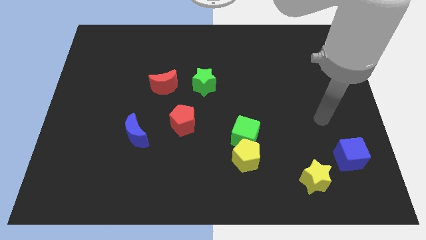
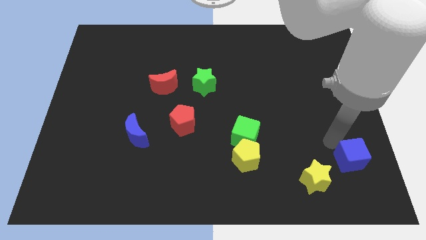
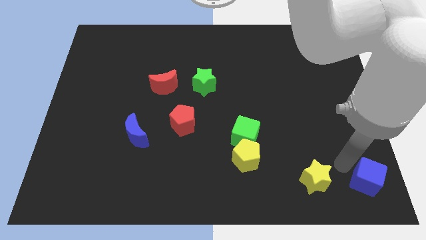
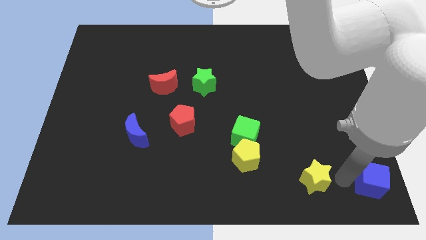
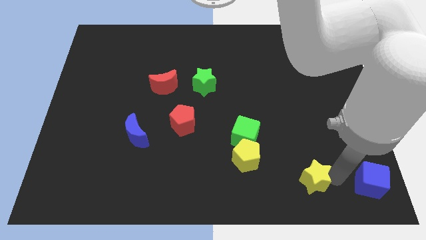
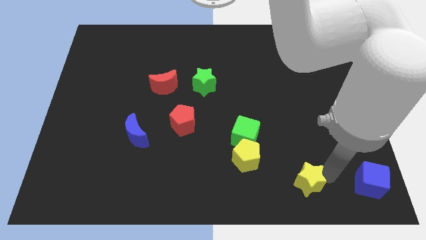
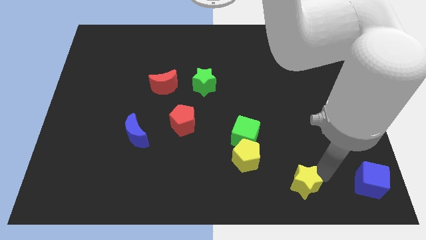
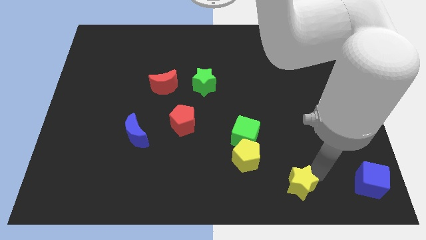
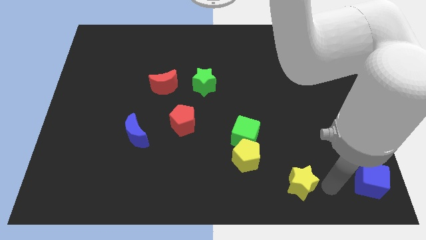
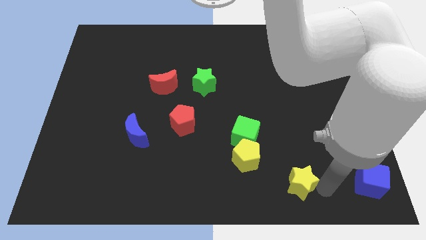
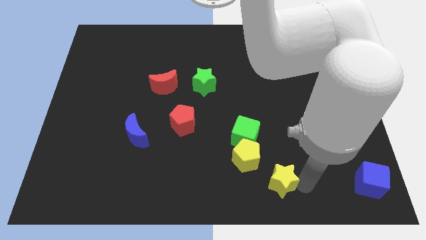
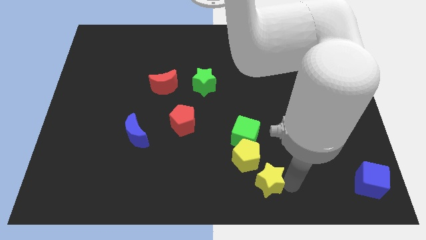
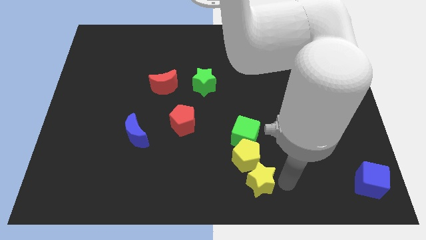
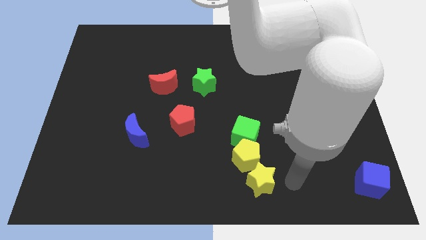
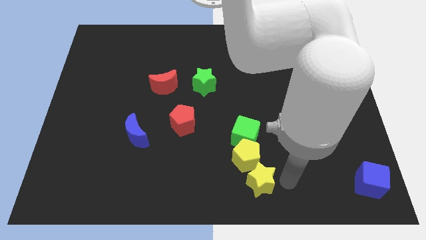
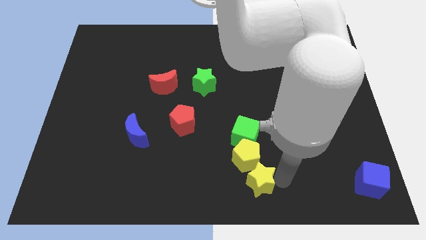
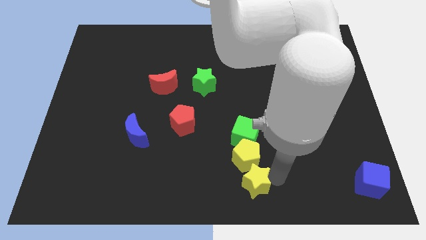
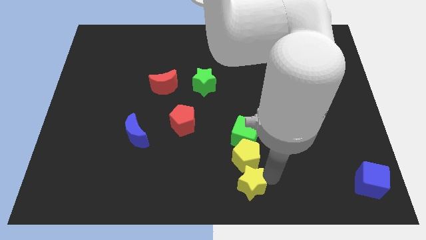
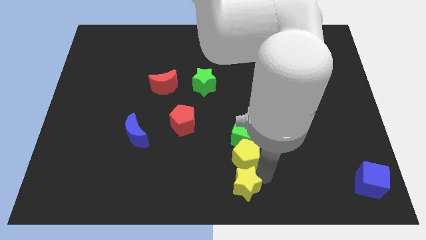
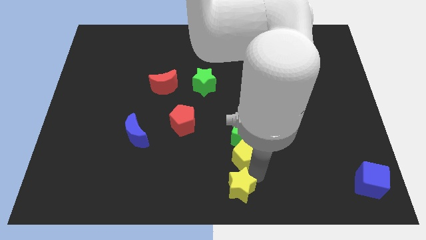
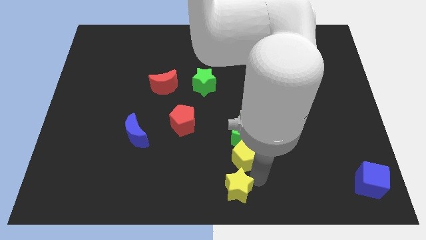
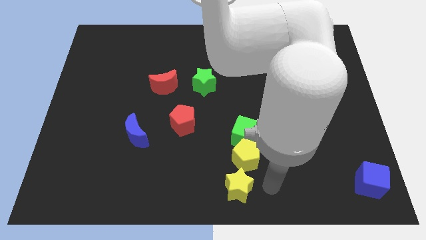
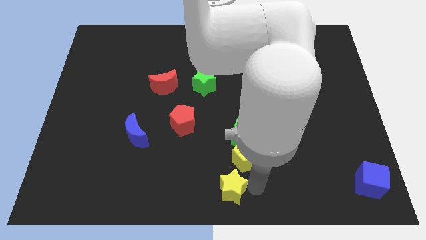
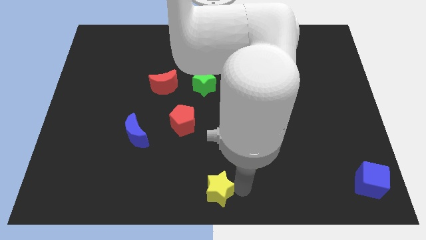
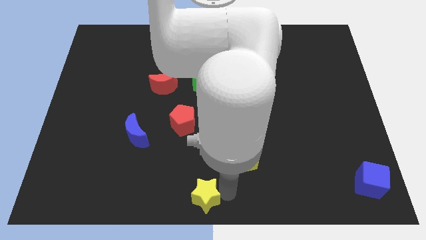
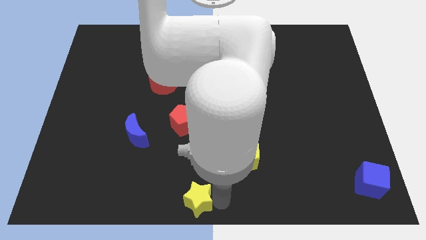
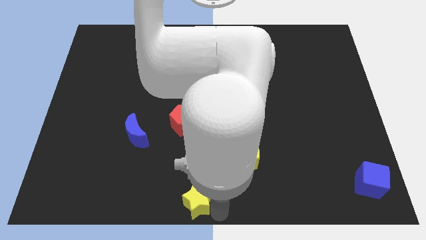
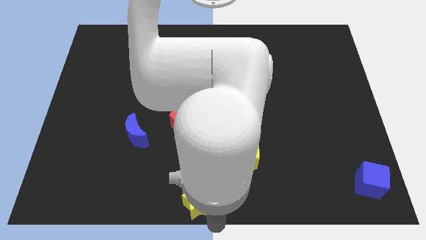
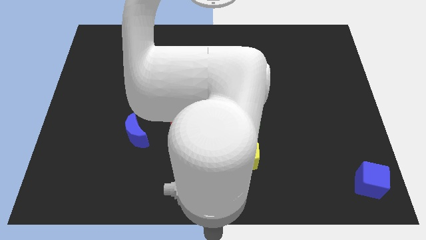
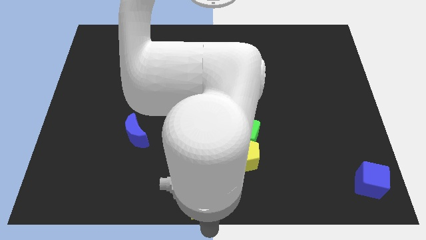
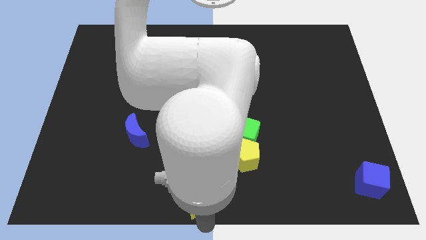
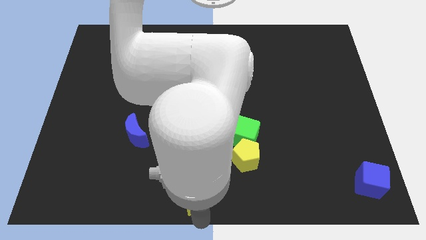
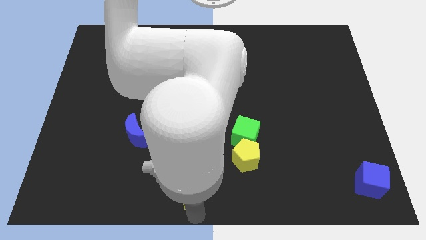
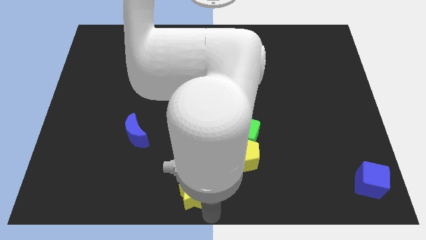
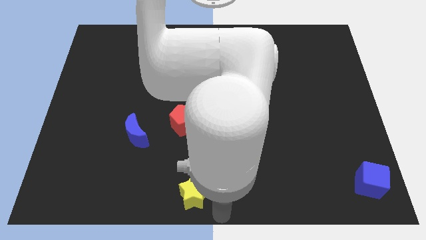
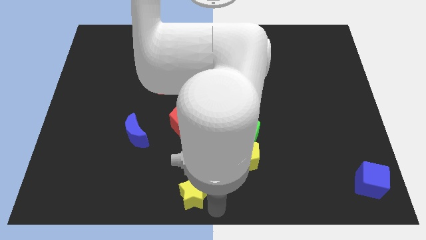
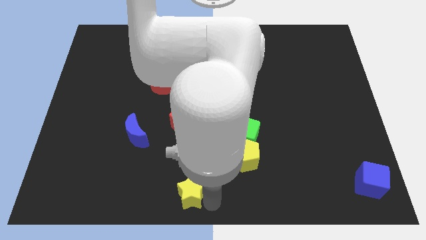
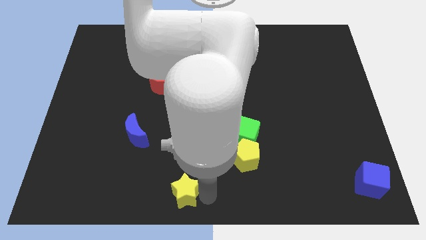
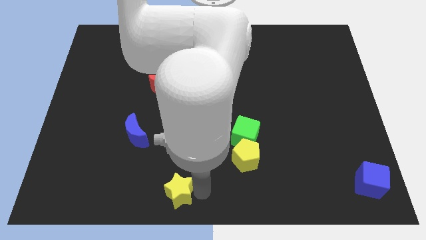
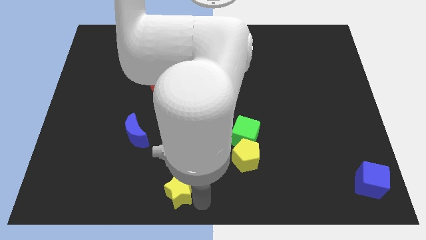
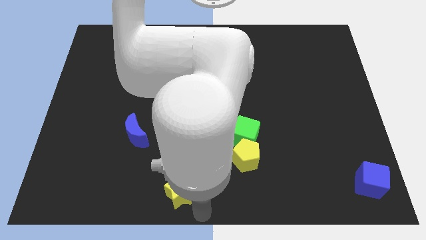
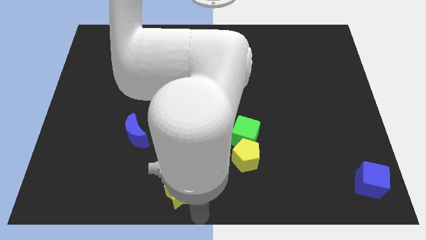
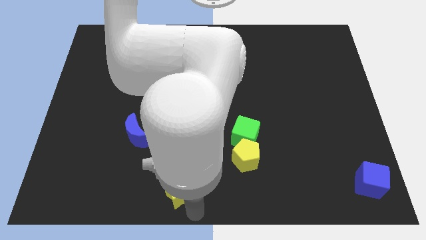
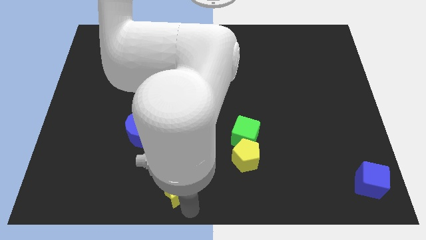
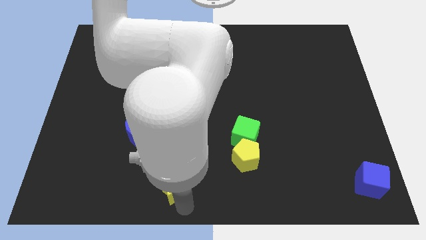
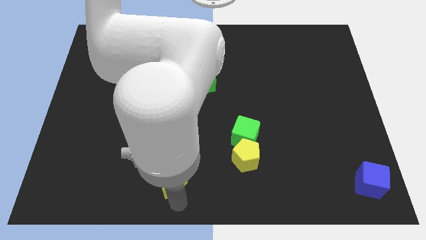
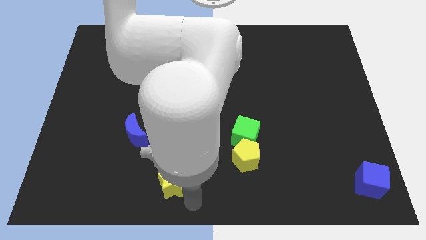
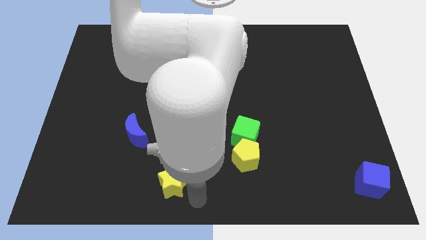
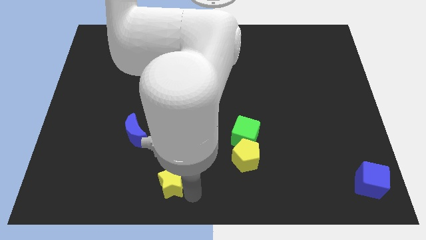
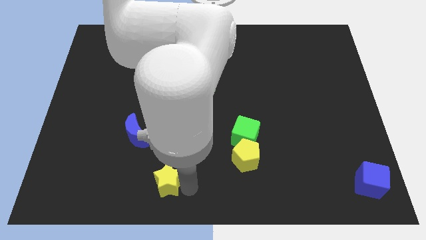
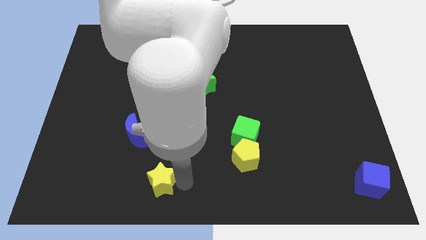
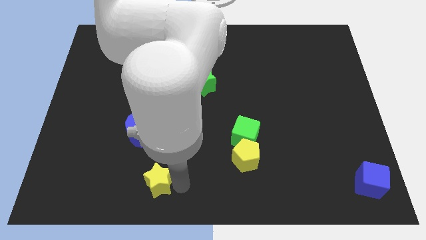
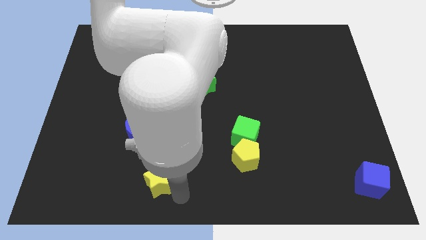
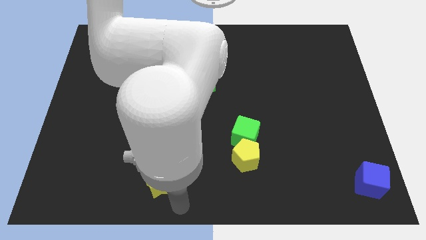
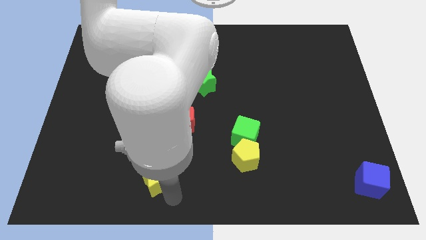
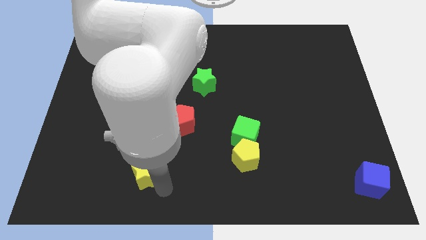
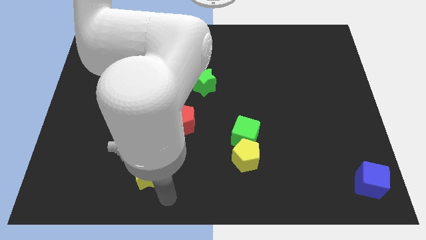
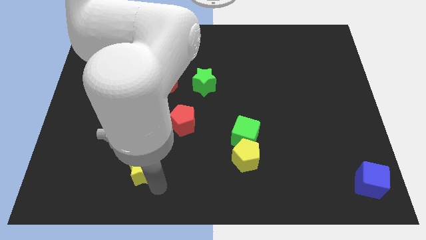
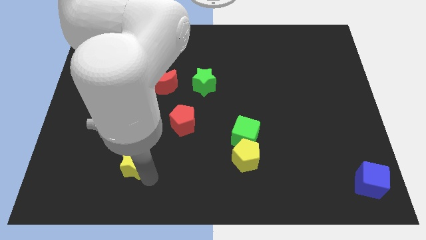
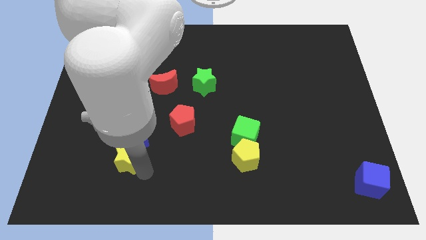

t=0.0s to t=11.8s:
put the yellow star to the bottom left side of the blue moon

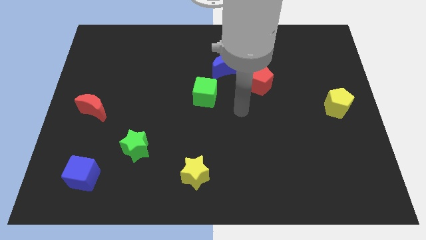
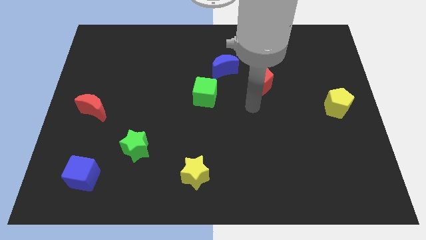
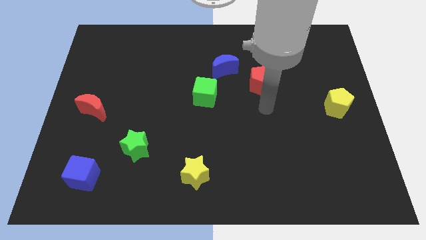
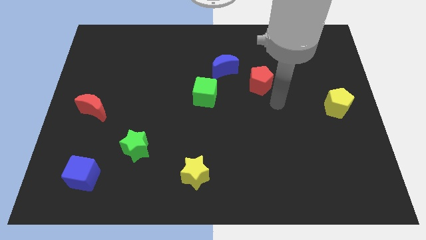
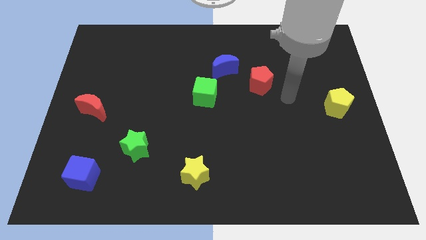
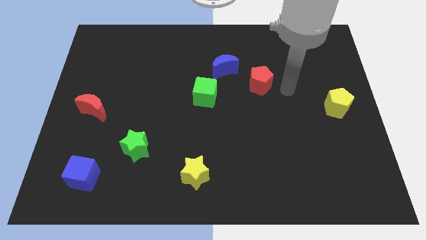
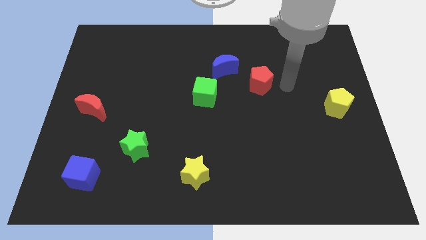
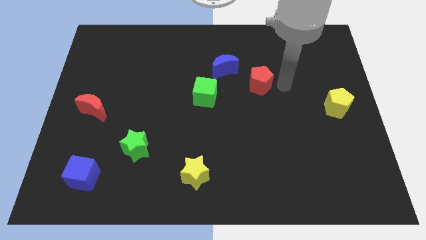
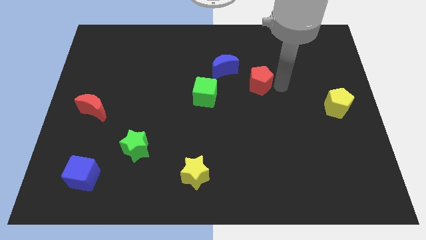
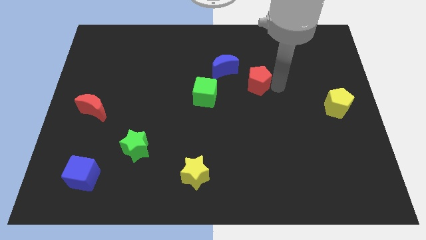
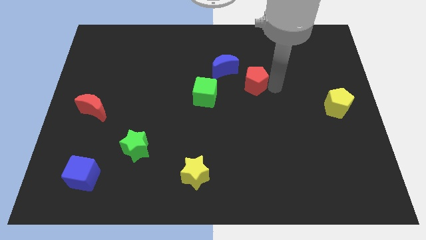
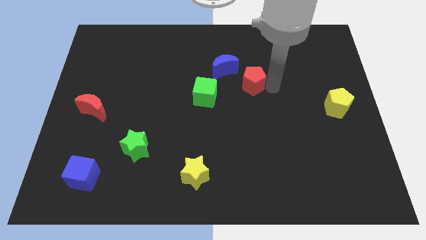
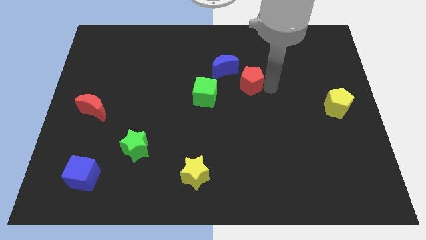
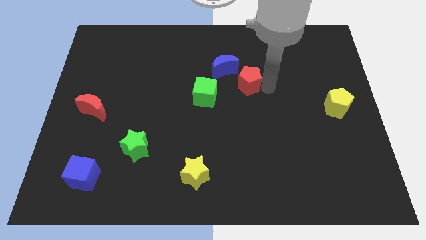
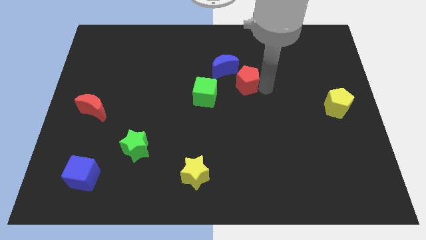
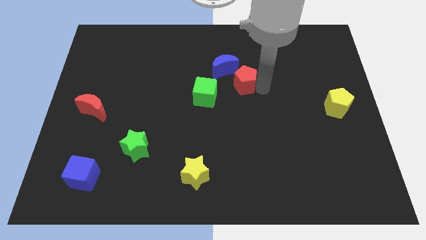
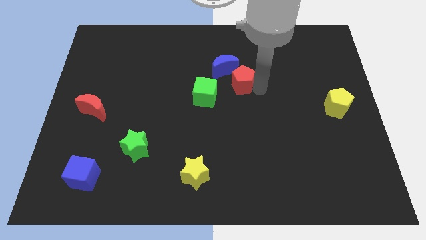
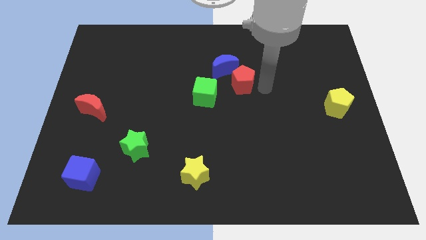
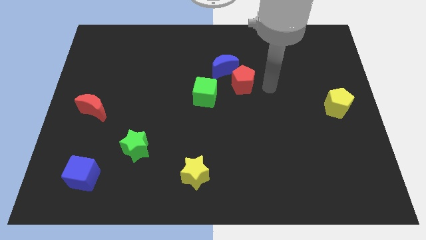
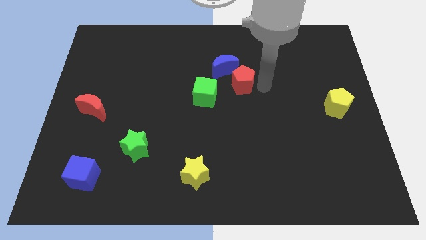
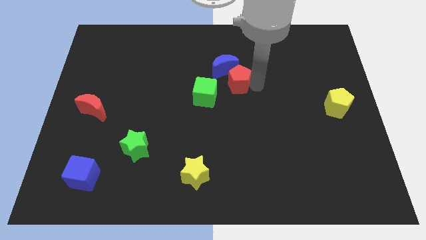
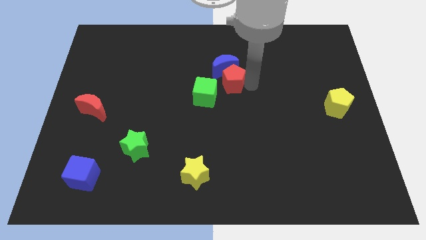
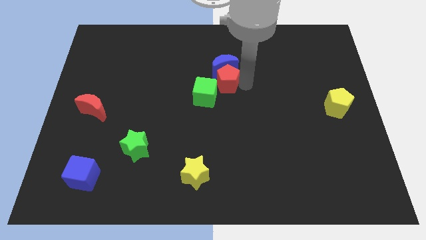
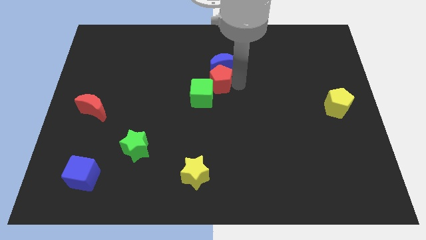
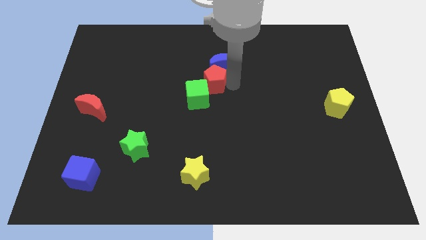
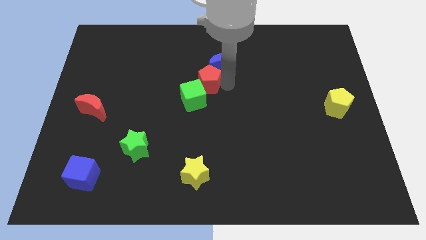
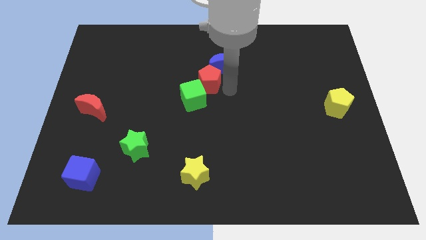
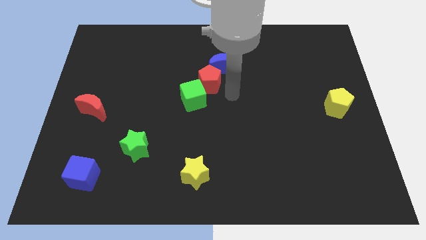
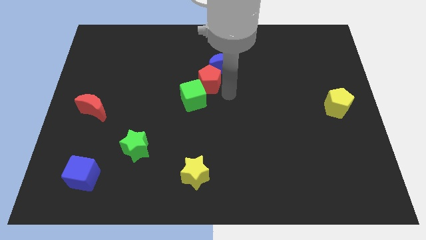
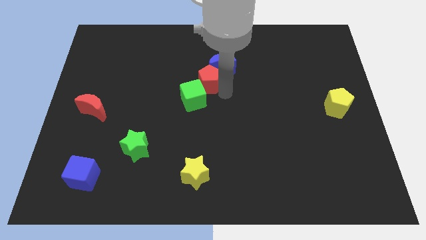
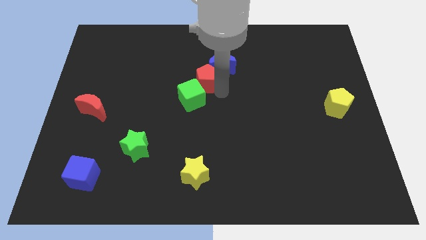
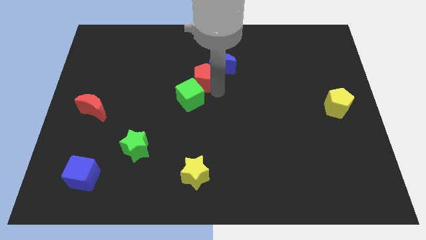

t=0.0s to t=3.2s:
slide the red pentagon left of the blue moon
